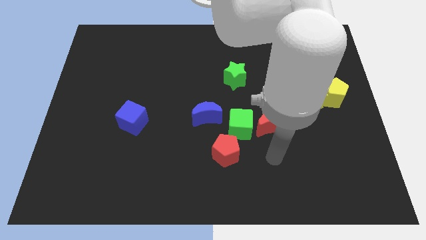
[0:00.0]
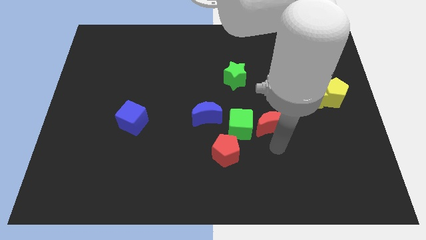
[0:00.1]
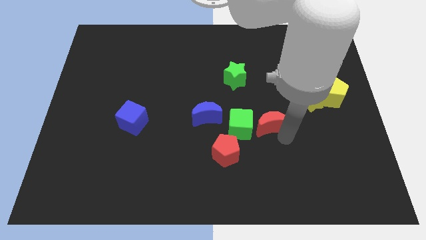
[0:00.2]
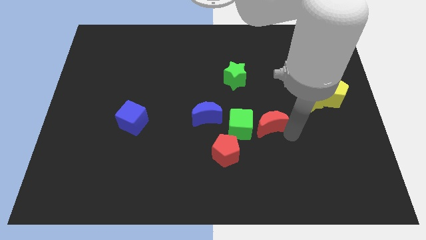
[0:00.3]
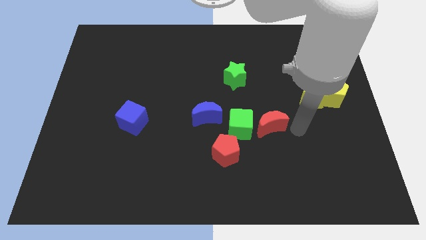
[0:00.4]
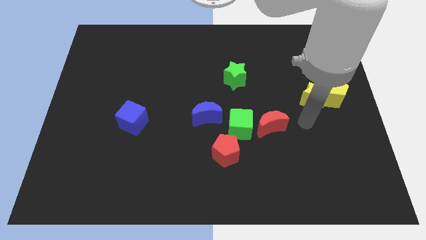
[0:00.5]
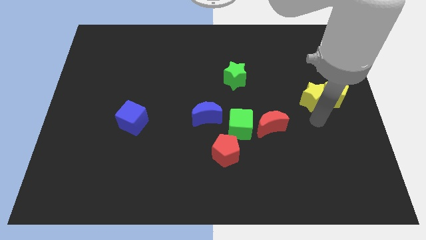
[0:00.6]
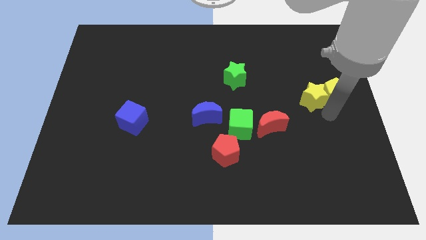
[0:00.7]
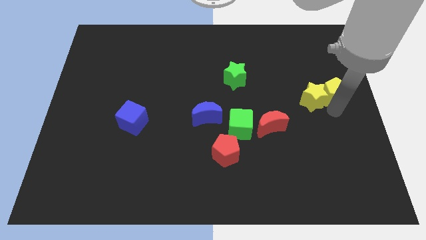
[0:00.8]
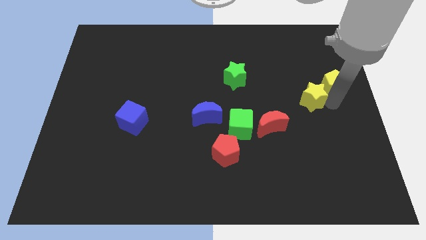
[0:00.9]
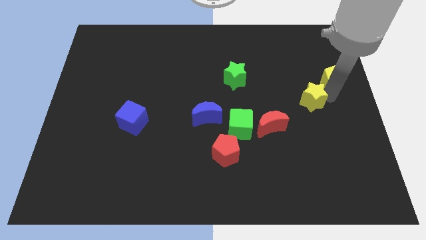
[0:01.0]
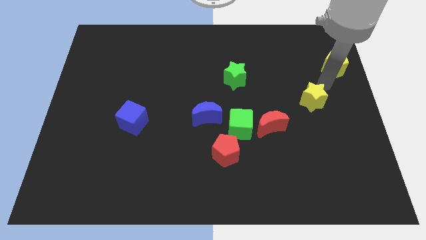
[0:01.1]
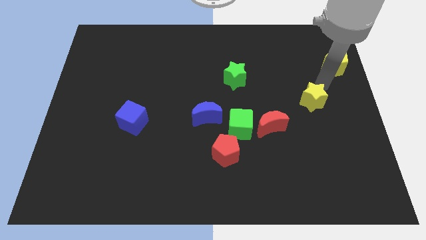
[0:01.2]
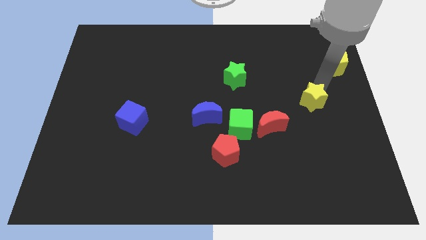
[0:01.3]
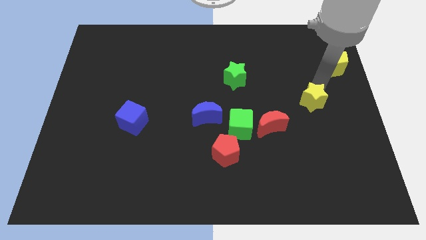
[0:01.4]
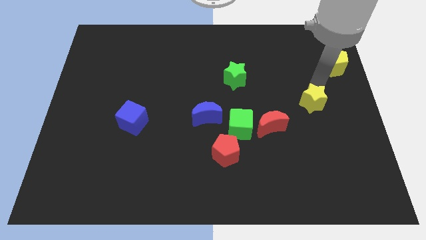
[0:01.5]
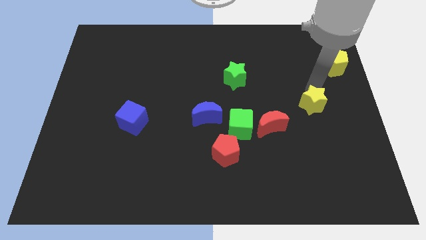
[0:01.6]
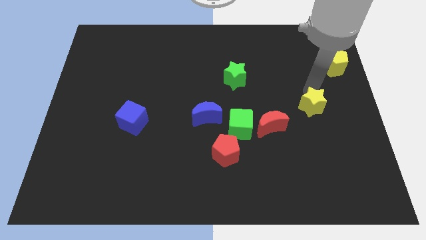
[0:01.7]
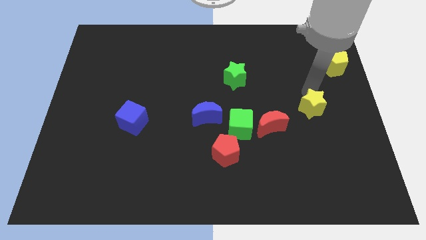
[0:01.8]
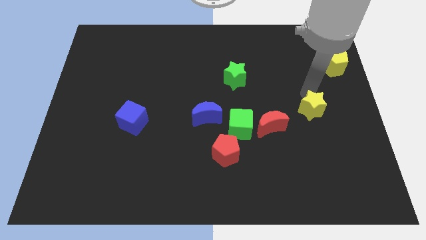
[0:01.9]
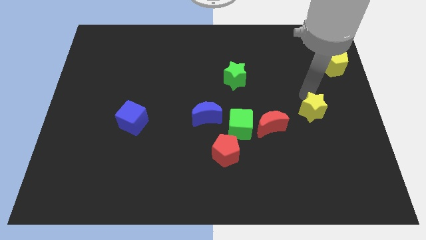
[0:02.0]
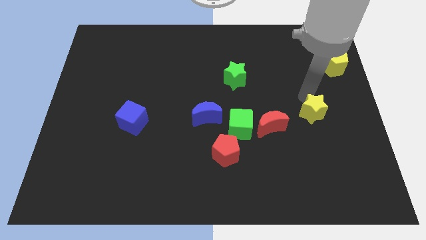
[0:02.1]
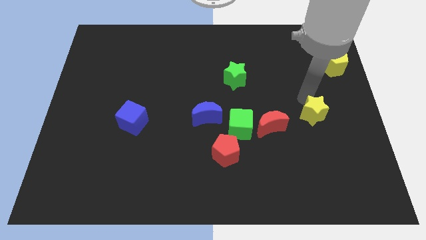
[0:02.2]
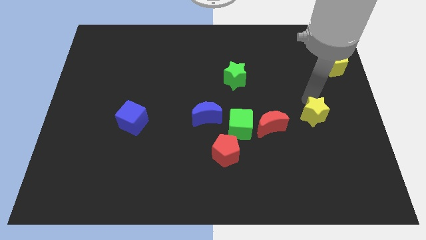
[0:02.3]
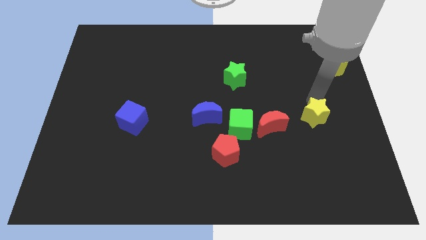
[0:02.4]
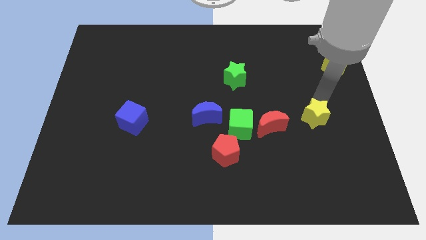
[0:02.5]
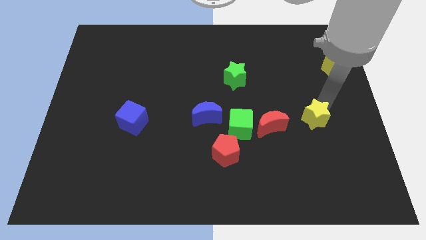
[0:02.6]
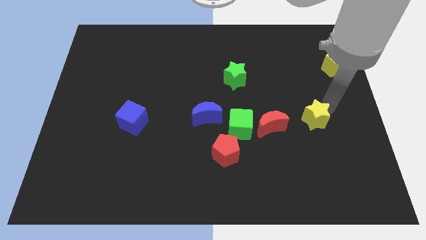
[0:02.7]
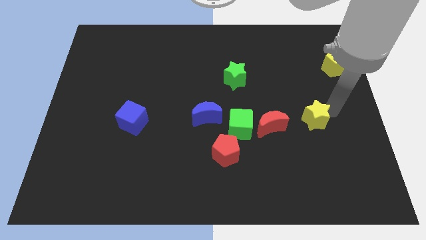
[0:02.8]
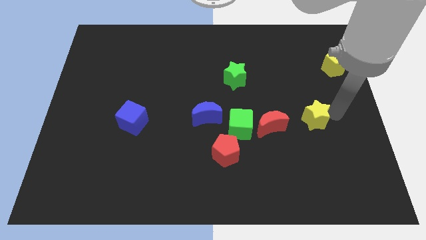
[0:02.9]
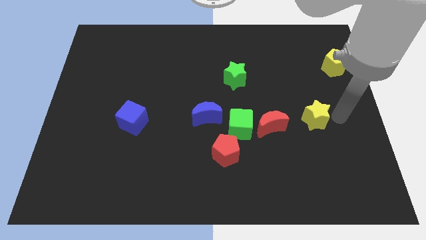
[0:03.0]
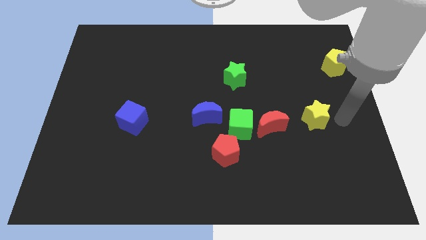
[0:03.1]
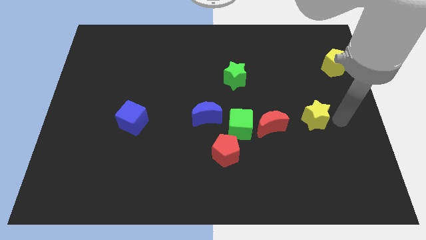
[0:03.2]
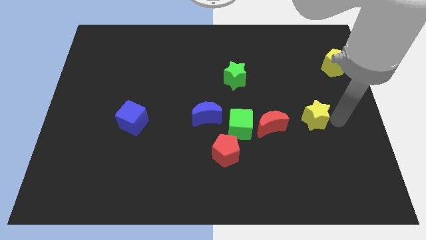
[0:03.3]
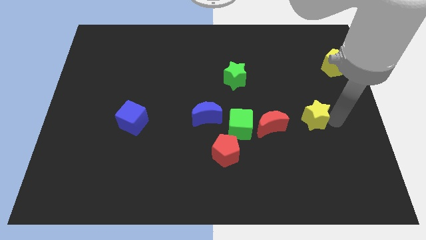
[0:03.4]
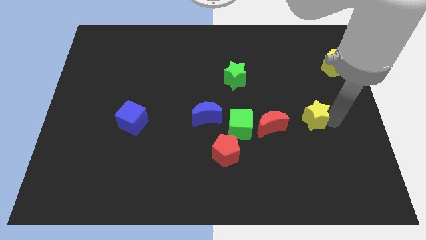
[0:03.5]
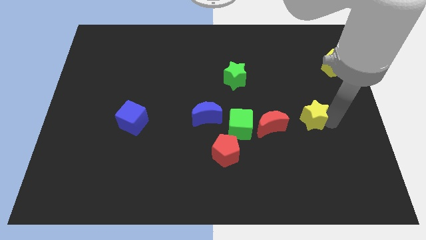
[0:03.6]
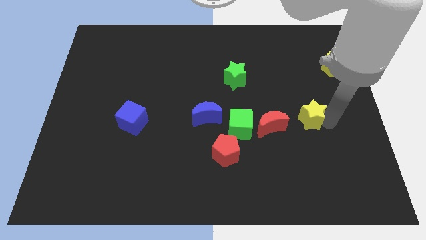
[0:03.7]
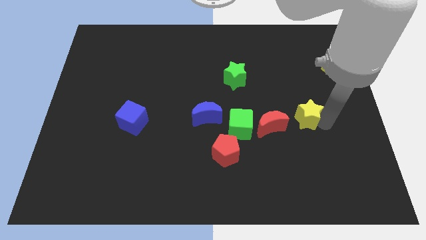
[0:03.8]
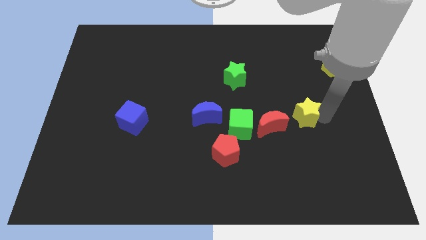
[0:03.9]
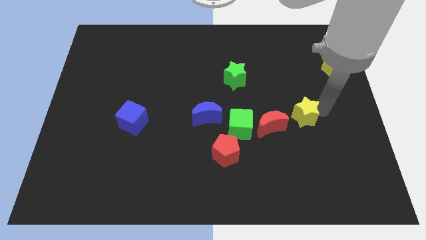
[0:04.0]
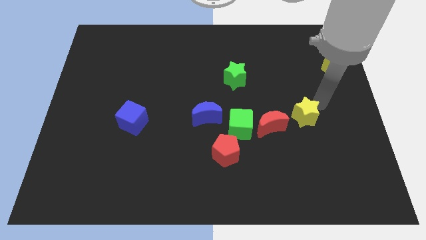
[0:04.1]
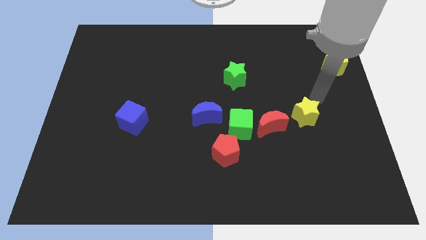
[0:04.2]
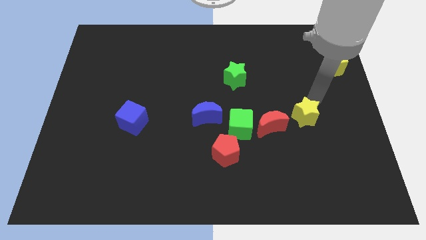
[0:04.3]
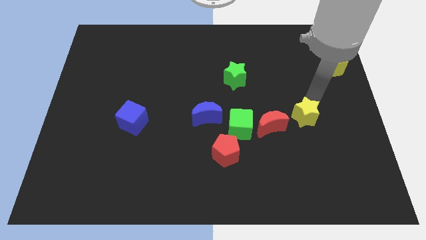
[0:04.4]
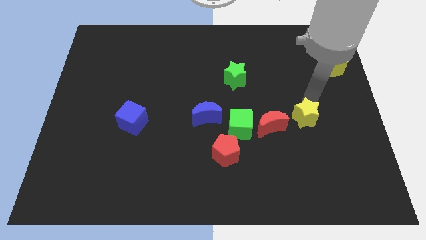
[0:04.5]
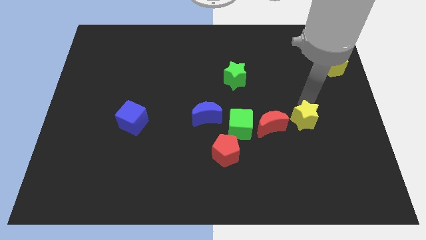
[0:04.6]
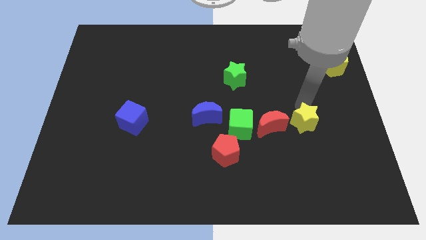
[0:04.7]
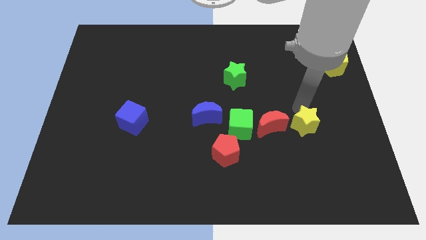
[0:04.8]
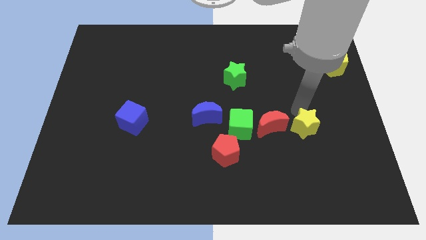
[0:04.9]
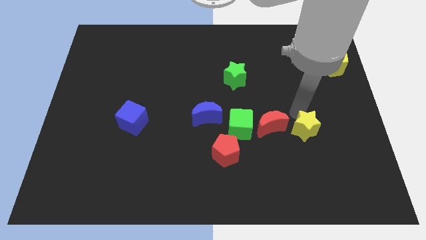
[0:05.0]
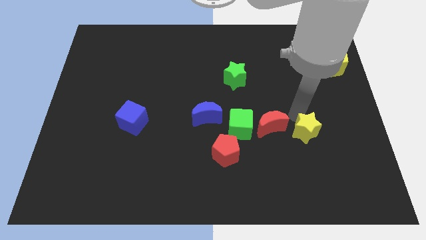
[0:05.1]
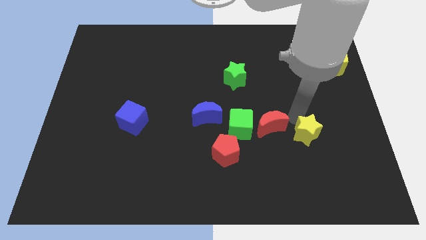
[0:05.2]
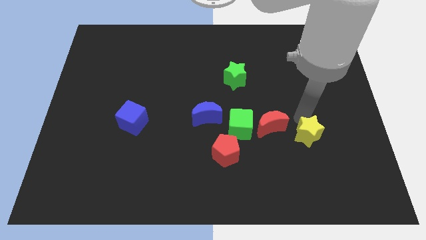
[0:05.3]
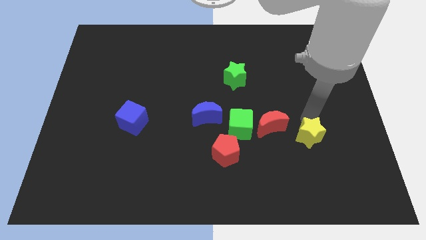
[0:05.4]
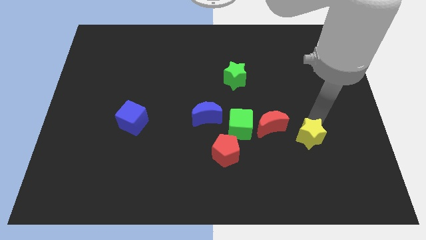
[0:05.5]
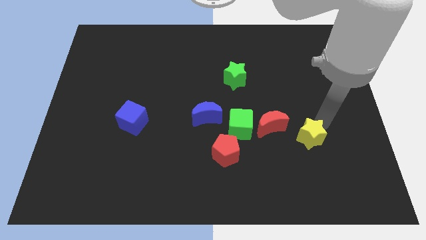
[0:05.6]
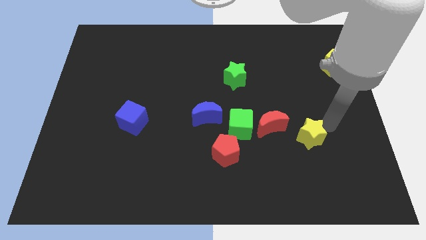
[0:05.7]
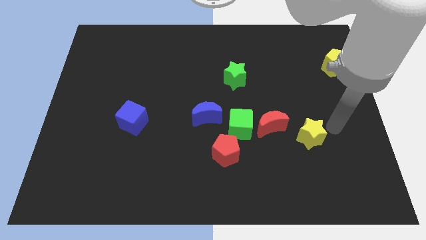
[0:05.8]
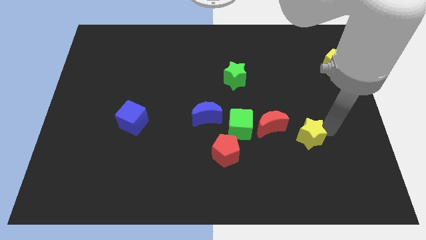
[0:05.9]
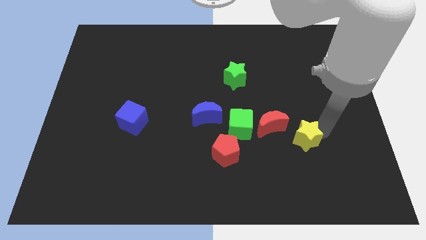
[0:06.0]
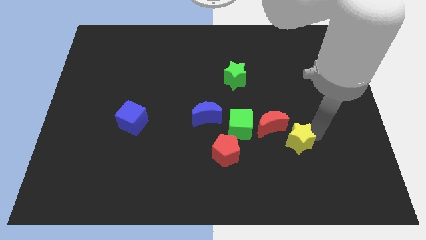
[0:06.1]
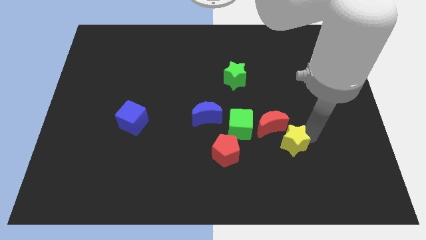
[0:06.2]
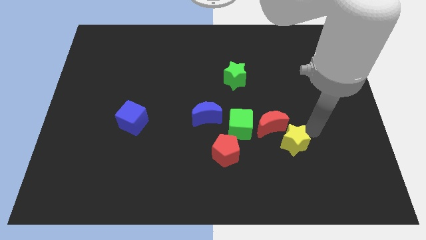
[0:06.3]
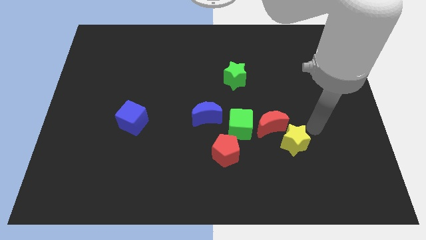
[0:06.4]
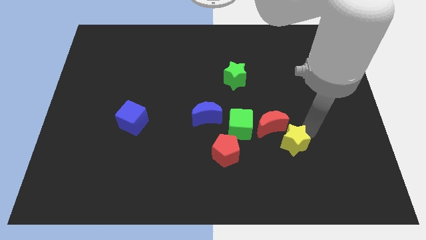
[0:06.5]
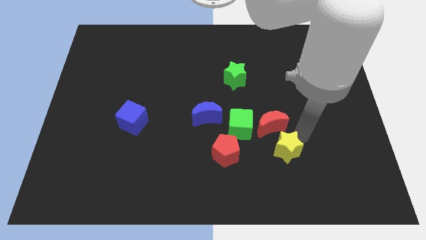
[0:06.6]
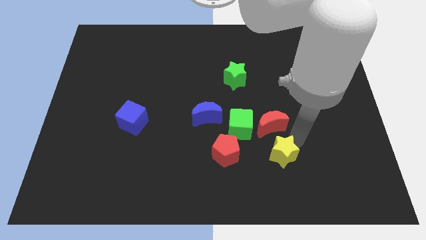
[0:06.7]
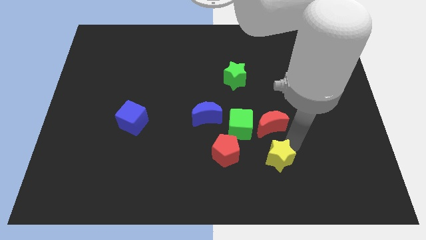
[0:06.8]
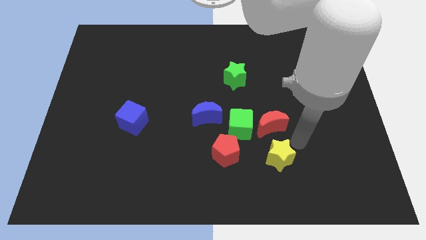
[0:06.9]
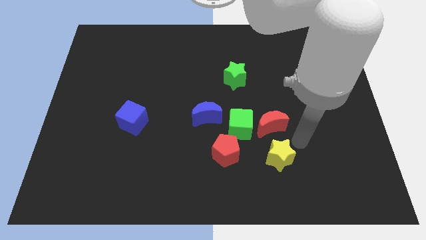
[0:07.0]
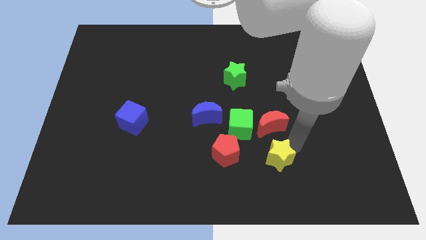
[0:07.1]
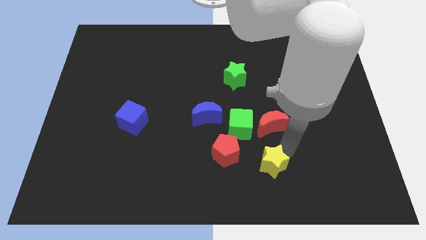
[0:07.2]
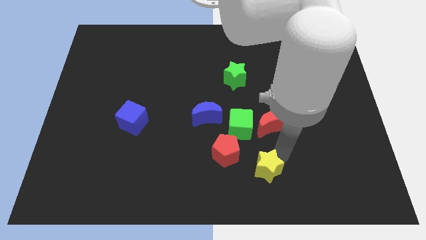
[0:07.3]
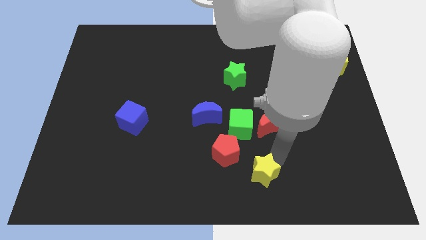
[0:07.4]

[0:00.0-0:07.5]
move the yellow star to the bottom side
